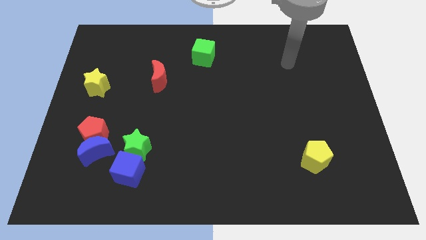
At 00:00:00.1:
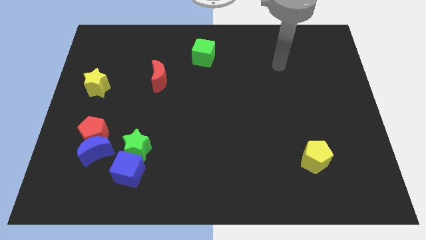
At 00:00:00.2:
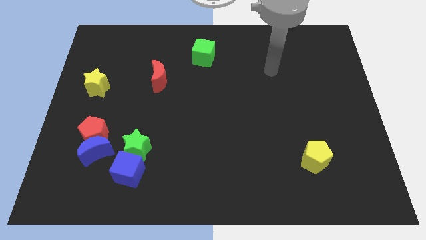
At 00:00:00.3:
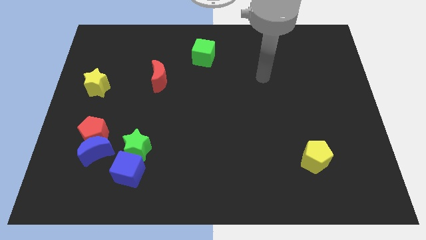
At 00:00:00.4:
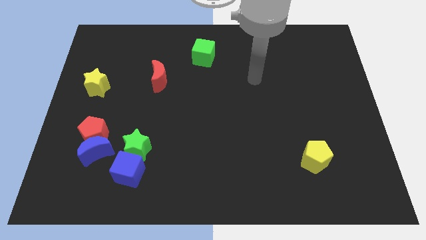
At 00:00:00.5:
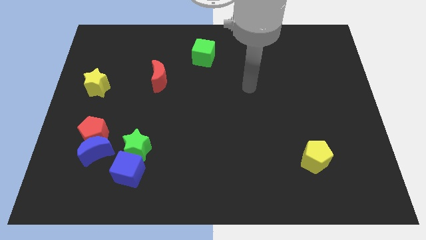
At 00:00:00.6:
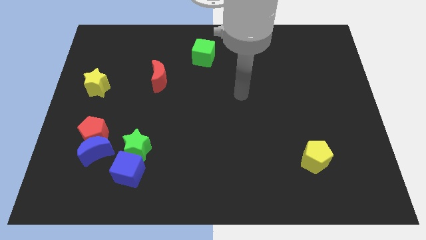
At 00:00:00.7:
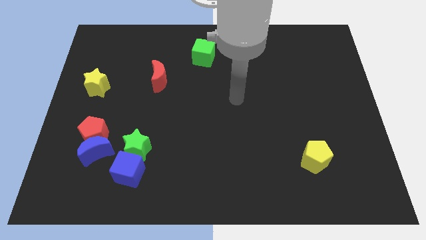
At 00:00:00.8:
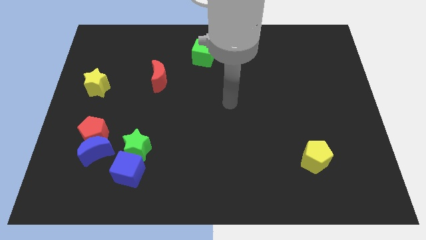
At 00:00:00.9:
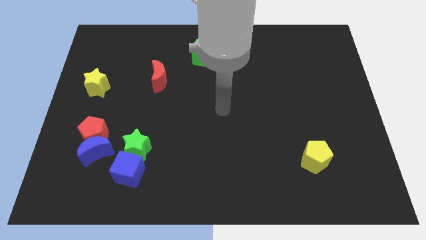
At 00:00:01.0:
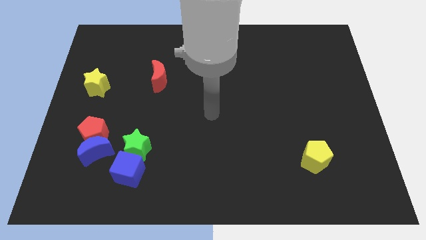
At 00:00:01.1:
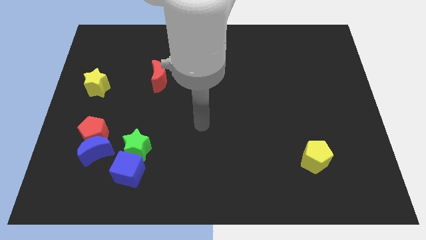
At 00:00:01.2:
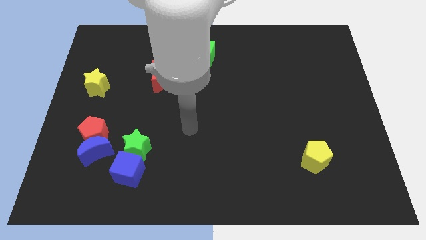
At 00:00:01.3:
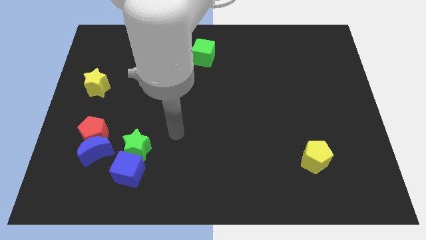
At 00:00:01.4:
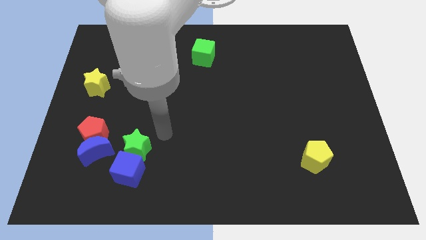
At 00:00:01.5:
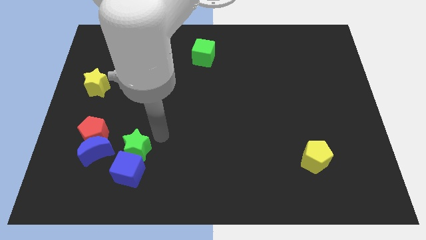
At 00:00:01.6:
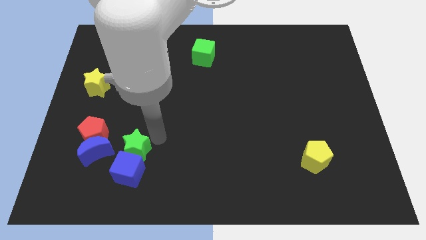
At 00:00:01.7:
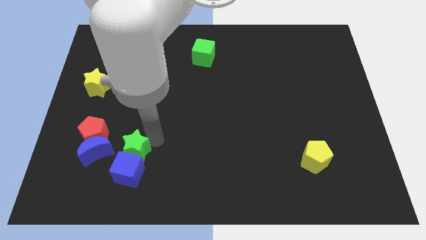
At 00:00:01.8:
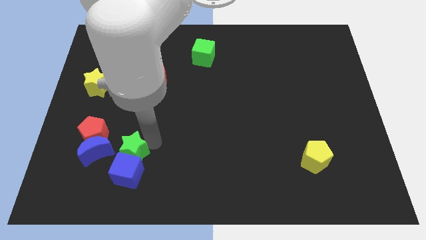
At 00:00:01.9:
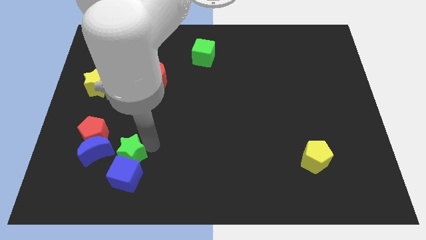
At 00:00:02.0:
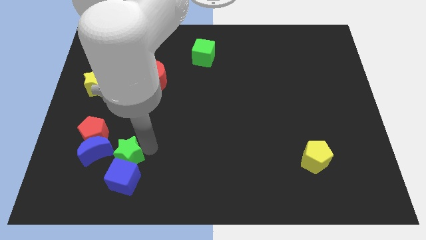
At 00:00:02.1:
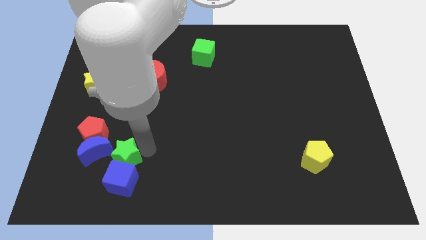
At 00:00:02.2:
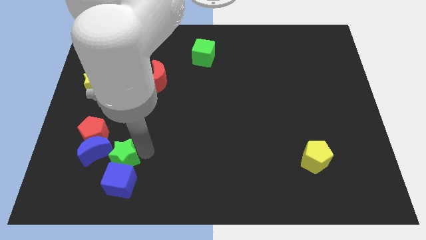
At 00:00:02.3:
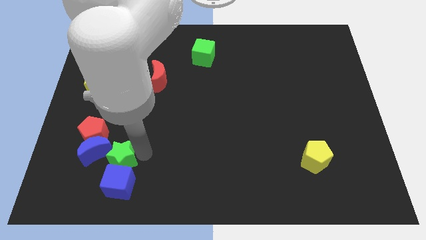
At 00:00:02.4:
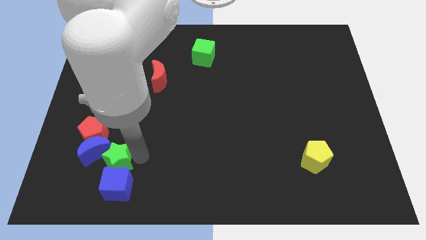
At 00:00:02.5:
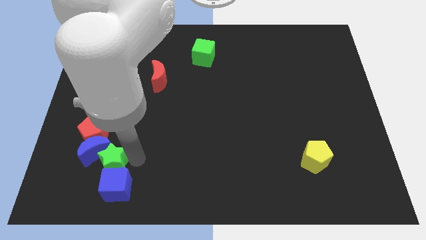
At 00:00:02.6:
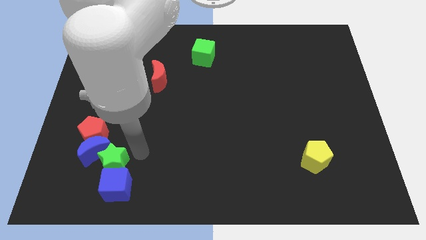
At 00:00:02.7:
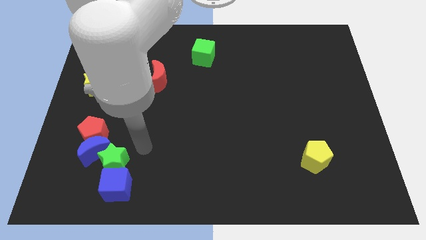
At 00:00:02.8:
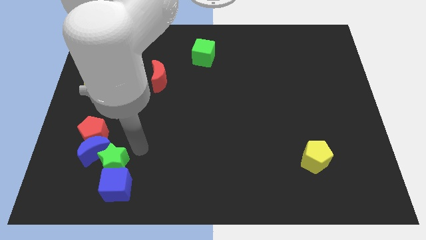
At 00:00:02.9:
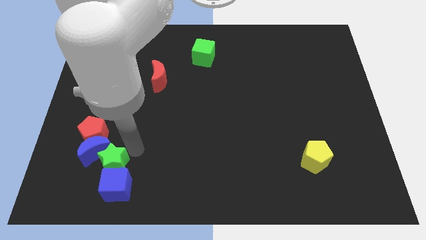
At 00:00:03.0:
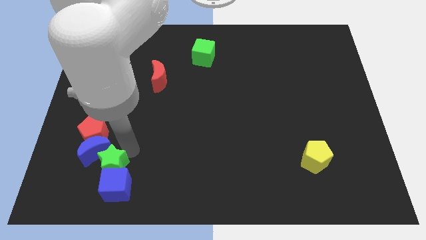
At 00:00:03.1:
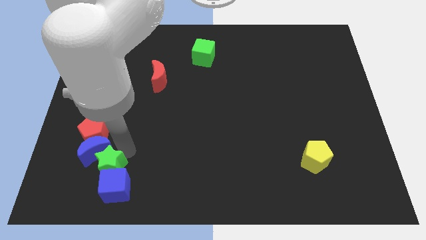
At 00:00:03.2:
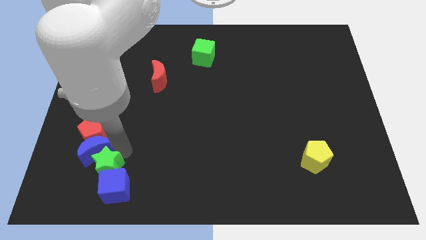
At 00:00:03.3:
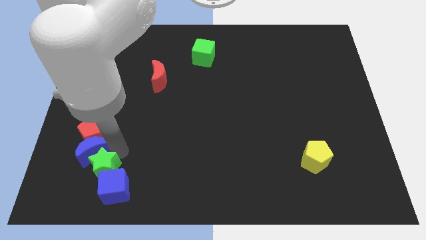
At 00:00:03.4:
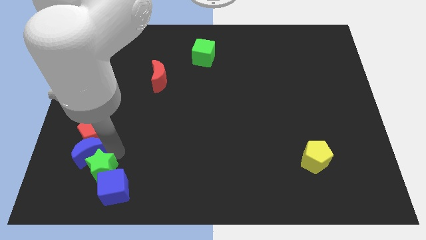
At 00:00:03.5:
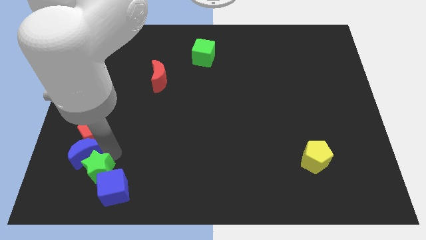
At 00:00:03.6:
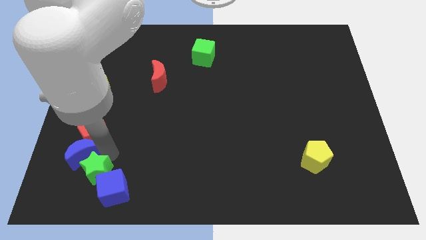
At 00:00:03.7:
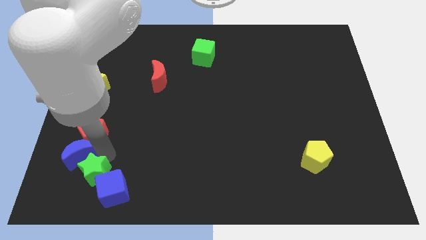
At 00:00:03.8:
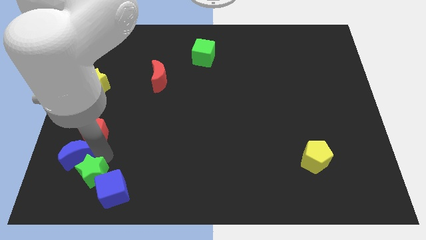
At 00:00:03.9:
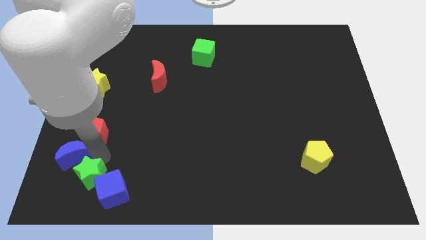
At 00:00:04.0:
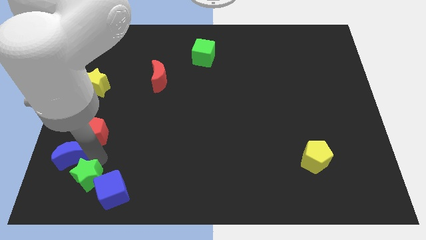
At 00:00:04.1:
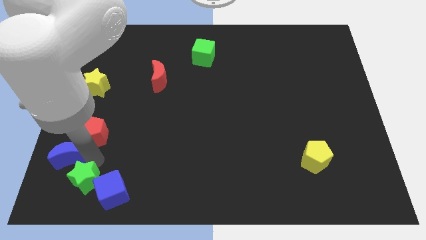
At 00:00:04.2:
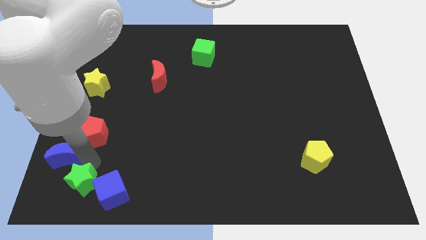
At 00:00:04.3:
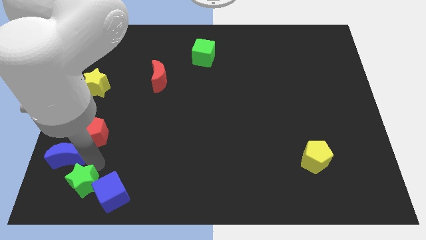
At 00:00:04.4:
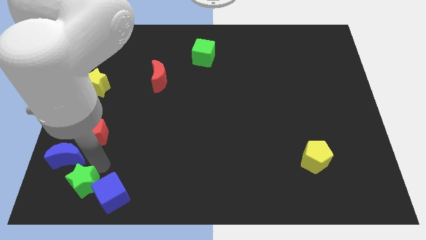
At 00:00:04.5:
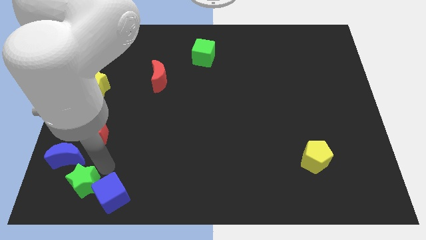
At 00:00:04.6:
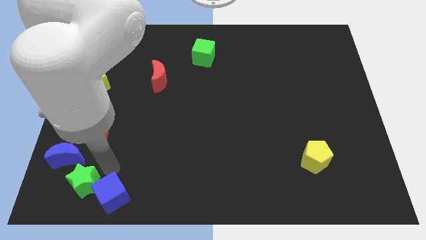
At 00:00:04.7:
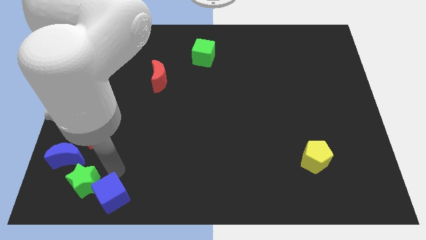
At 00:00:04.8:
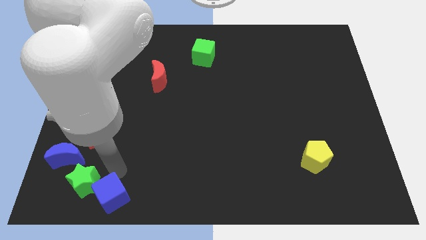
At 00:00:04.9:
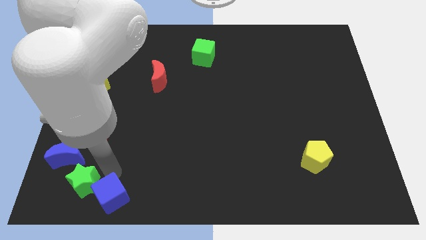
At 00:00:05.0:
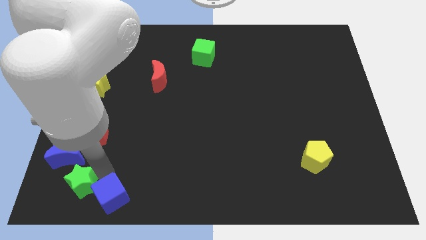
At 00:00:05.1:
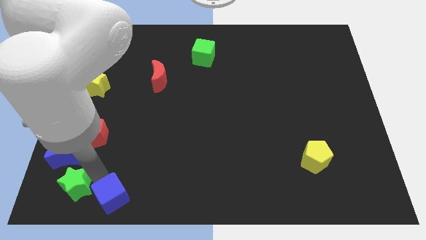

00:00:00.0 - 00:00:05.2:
slide the green star to the lower left corner
